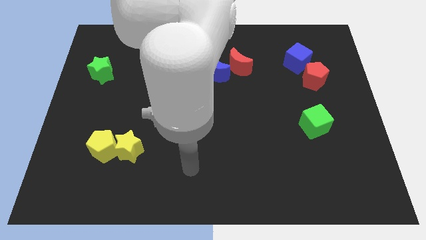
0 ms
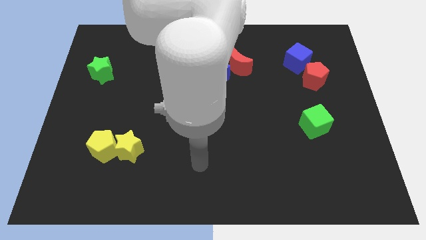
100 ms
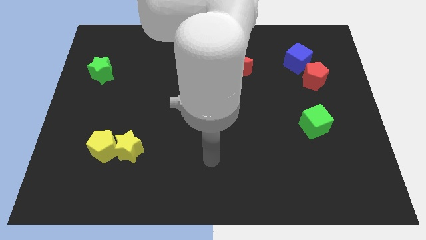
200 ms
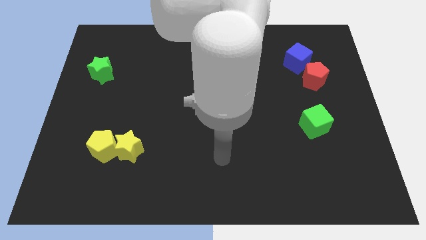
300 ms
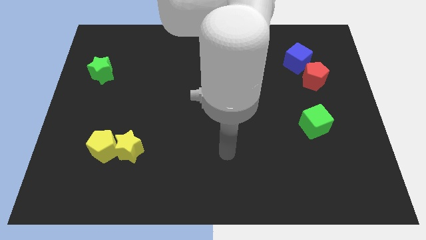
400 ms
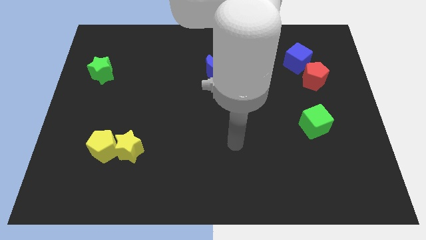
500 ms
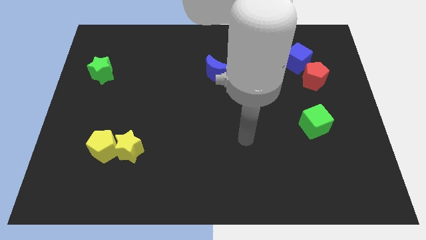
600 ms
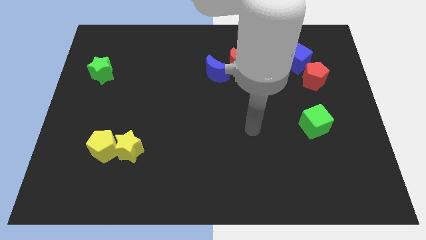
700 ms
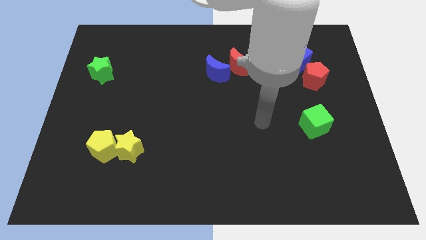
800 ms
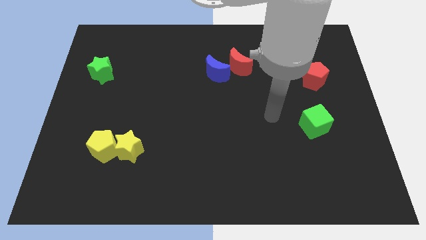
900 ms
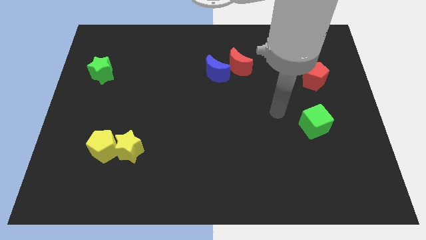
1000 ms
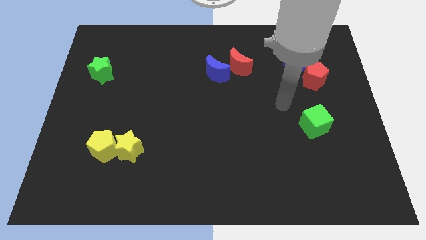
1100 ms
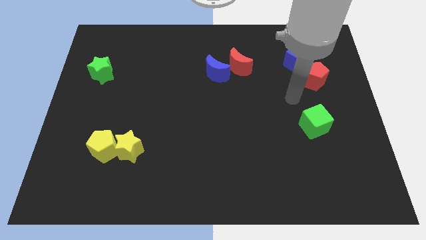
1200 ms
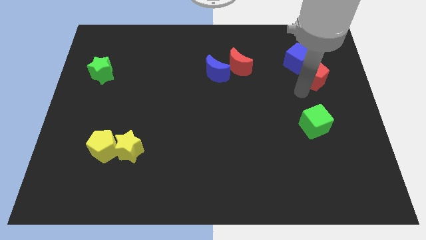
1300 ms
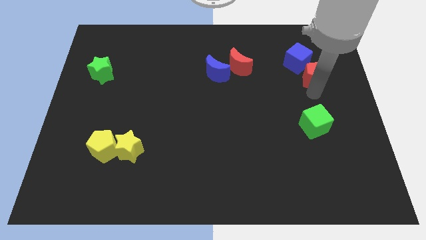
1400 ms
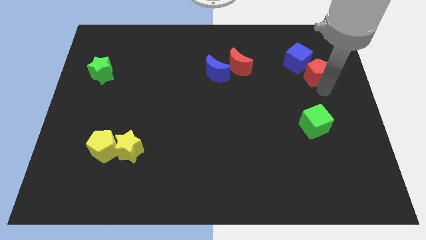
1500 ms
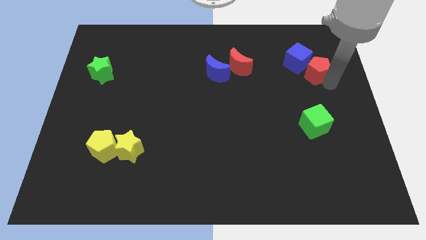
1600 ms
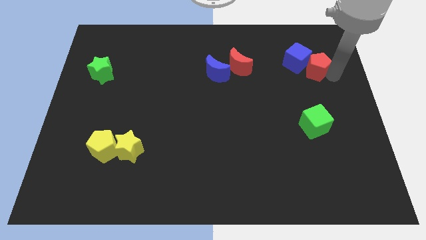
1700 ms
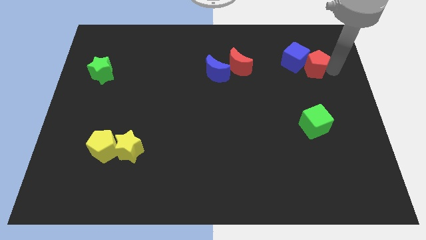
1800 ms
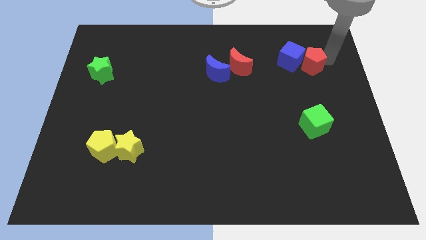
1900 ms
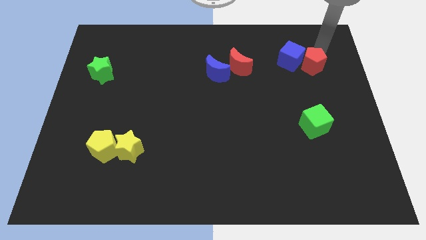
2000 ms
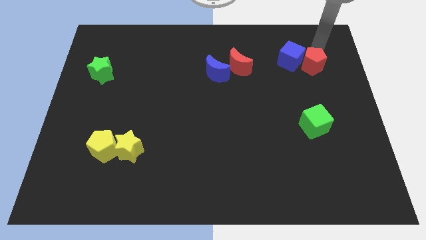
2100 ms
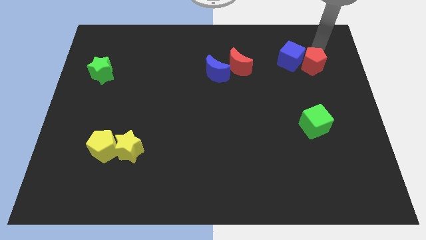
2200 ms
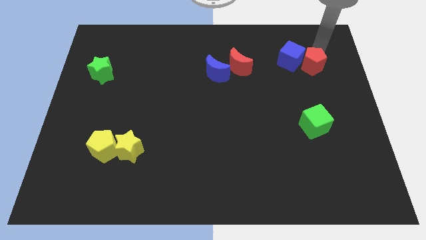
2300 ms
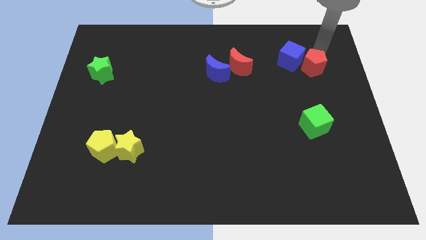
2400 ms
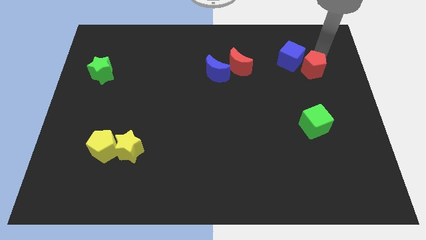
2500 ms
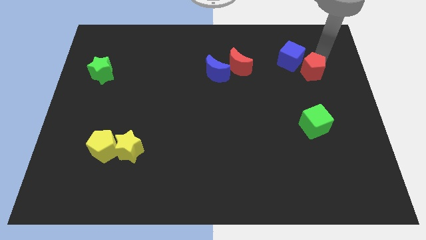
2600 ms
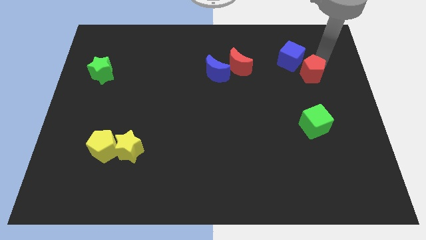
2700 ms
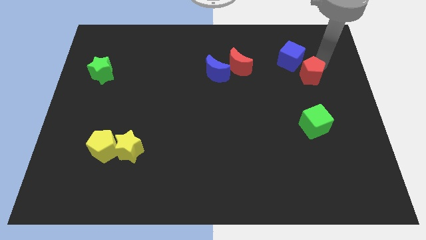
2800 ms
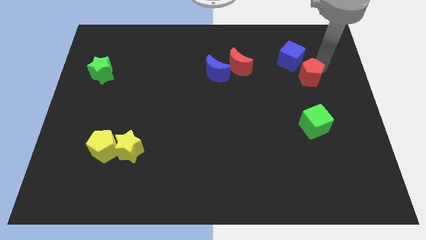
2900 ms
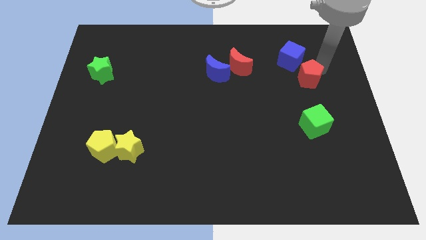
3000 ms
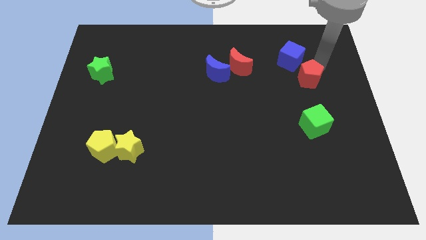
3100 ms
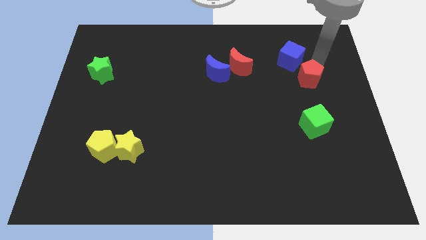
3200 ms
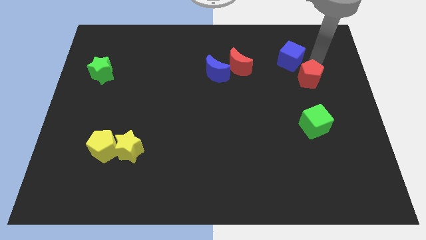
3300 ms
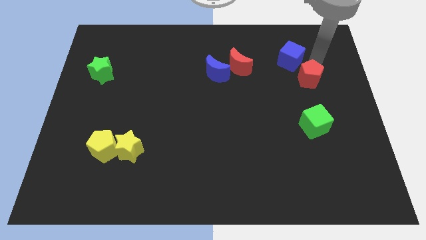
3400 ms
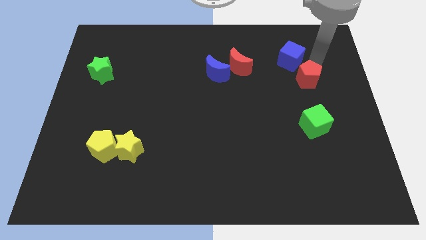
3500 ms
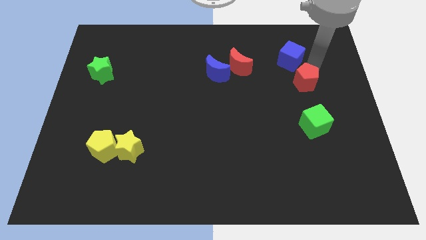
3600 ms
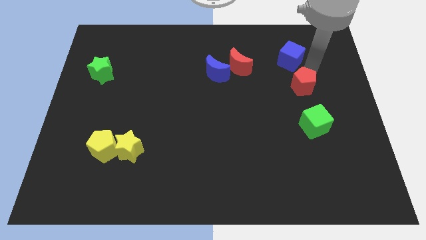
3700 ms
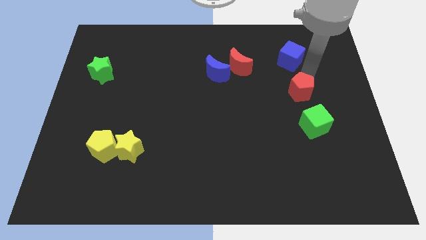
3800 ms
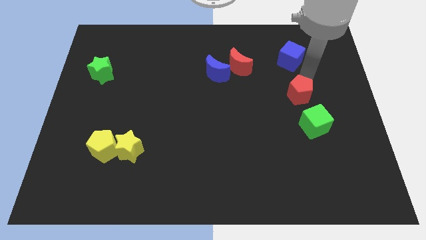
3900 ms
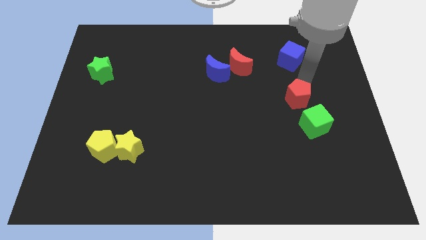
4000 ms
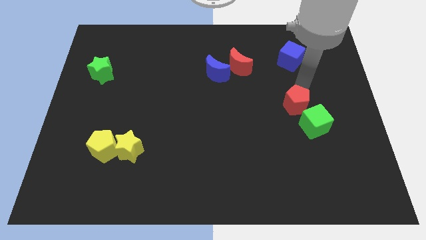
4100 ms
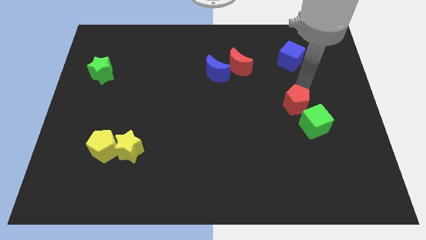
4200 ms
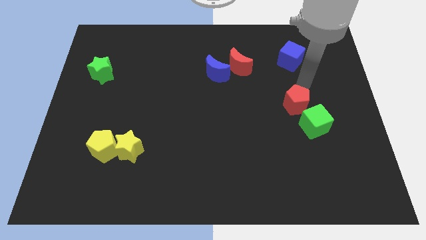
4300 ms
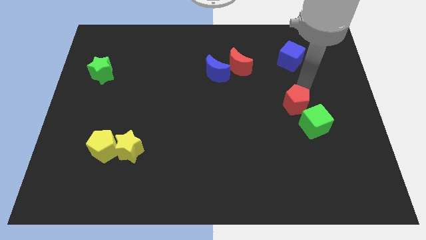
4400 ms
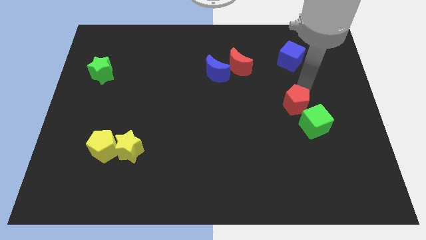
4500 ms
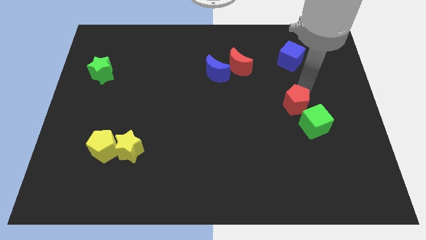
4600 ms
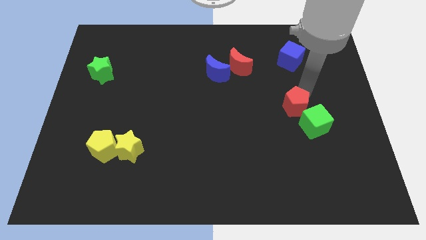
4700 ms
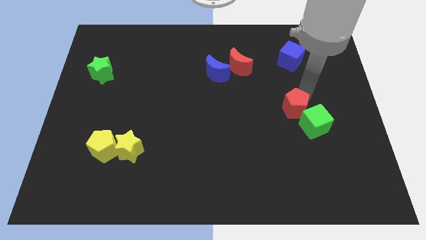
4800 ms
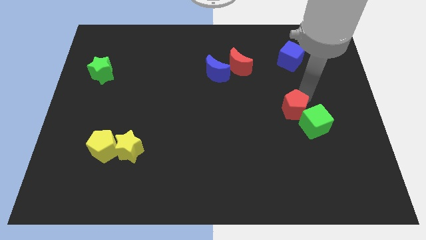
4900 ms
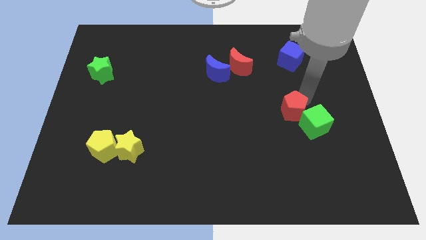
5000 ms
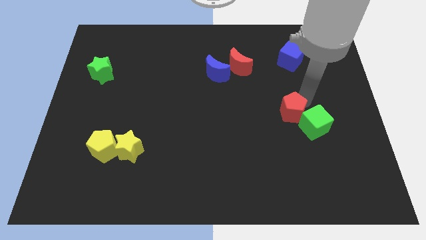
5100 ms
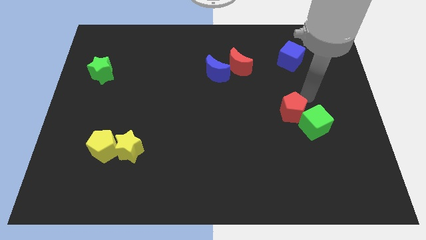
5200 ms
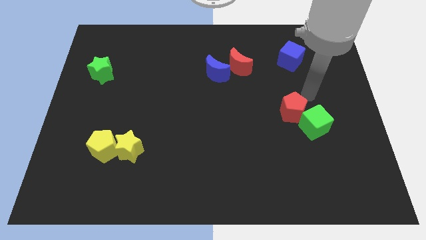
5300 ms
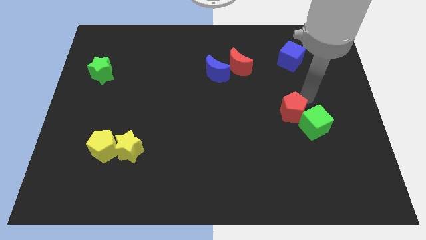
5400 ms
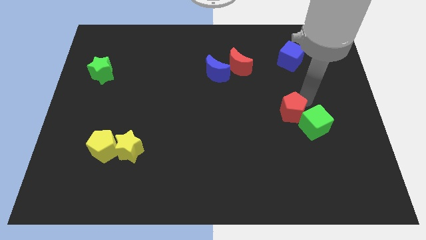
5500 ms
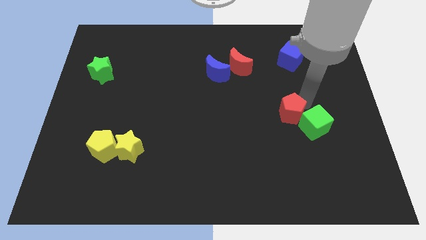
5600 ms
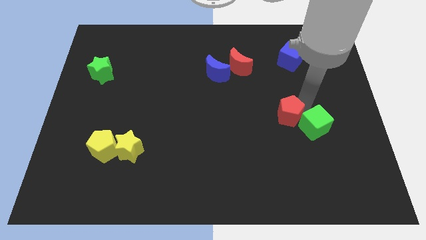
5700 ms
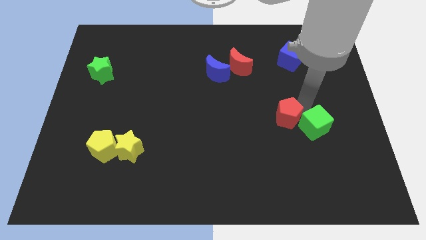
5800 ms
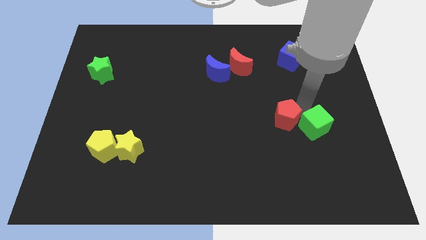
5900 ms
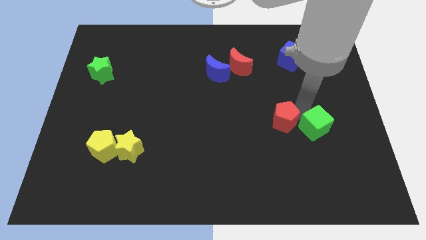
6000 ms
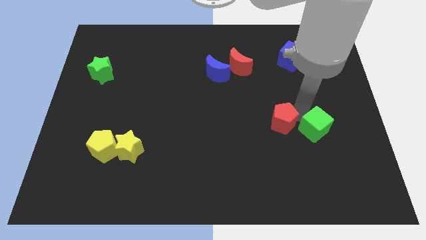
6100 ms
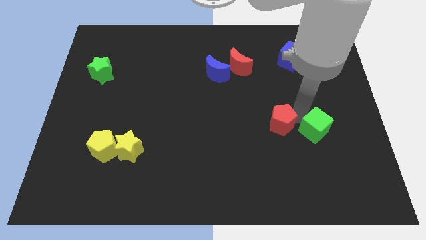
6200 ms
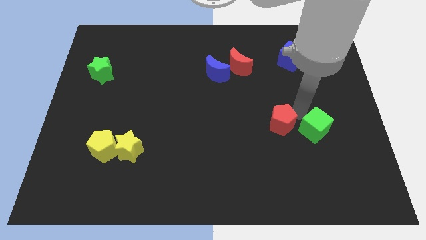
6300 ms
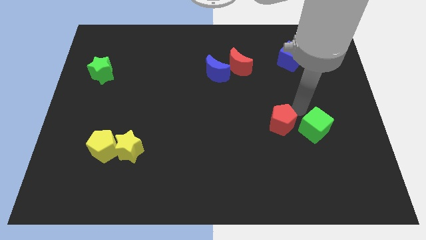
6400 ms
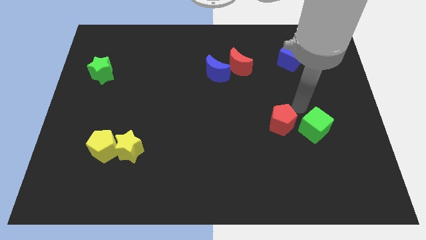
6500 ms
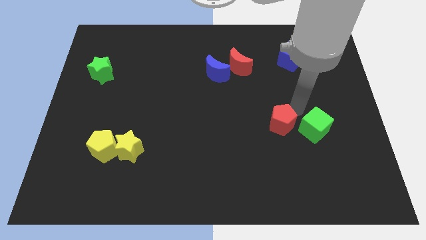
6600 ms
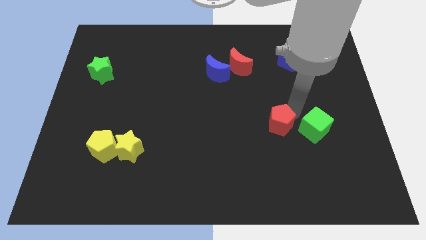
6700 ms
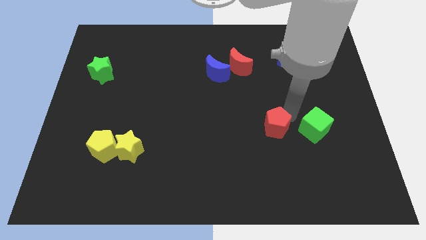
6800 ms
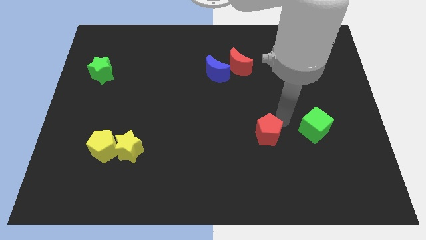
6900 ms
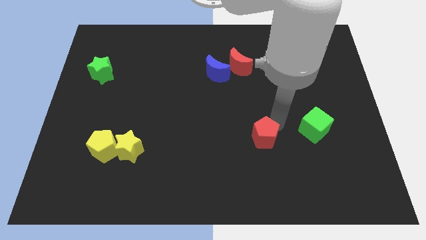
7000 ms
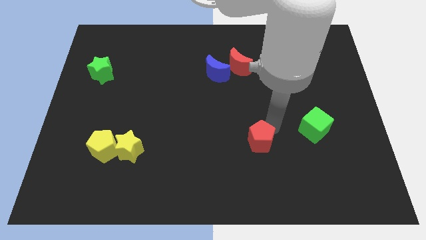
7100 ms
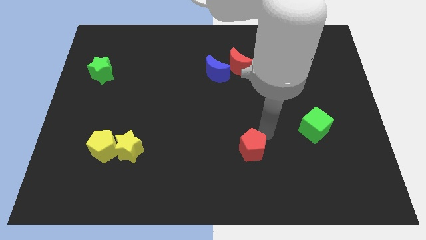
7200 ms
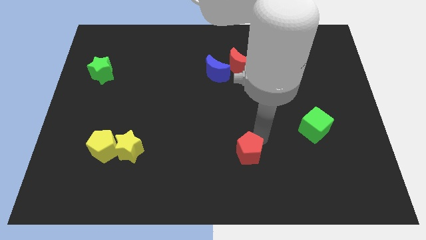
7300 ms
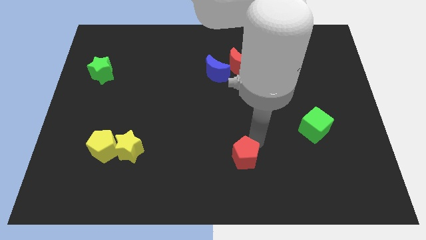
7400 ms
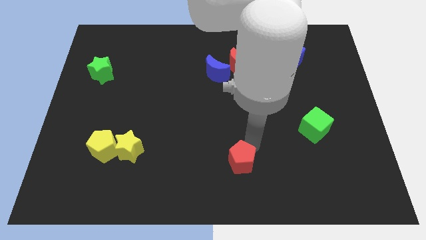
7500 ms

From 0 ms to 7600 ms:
move the red pentagon to the bottom
